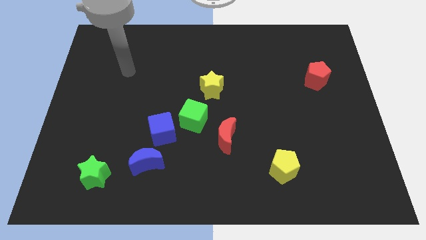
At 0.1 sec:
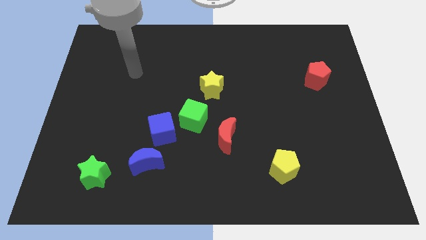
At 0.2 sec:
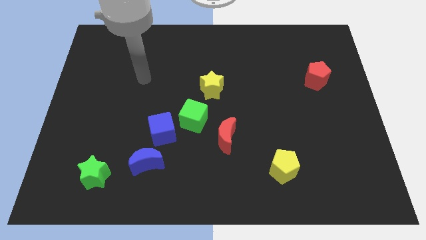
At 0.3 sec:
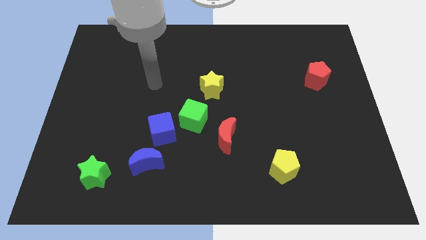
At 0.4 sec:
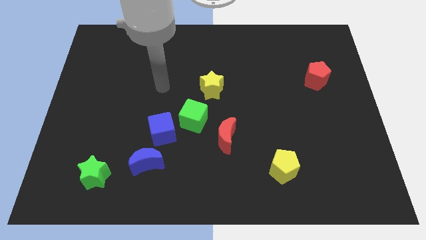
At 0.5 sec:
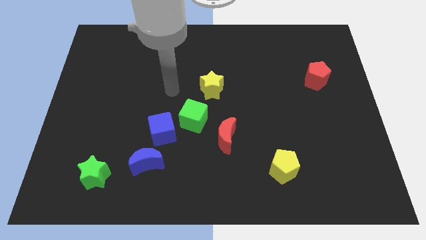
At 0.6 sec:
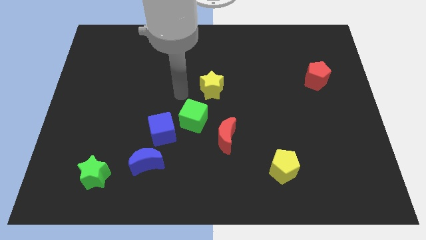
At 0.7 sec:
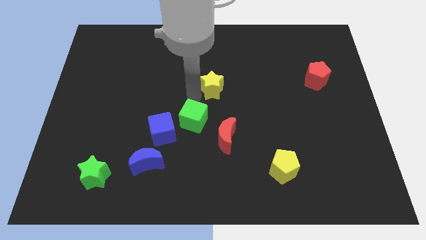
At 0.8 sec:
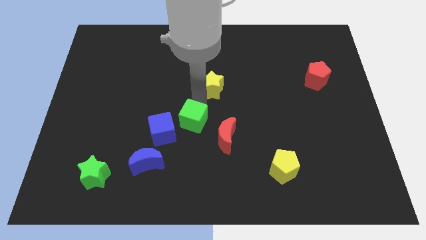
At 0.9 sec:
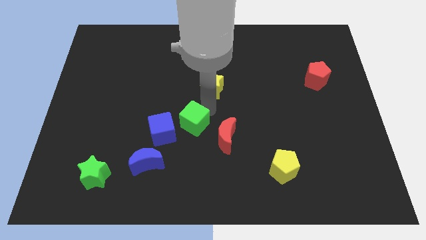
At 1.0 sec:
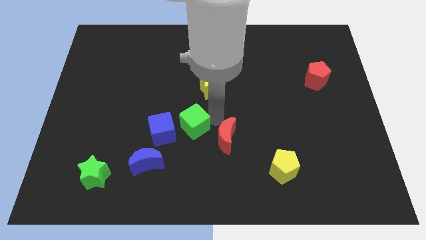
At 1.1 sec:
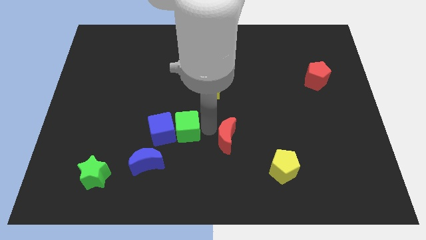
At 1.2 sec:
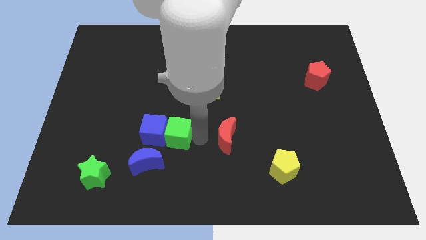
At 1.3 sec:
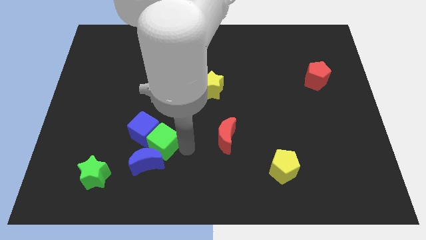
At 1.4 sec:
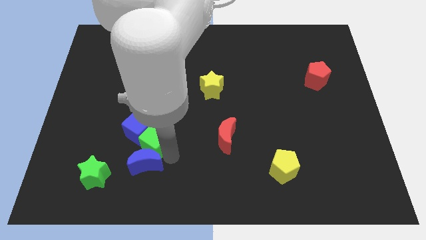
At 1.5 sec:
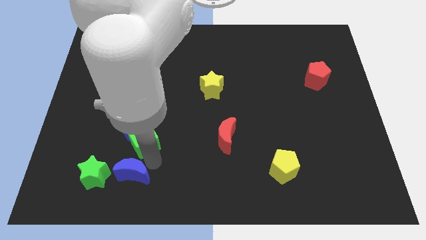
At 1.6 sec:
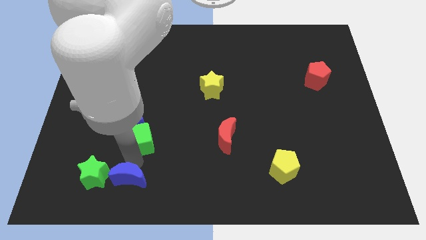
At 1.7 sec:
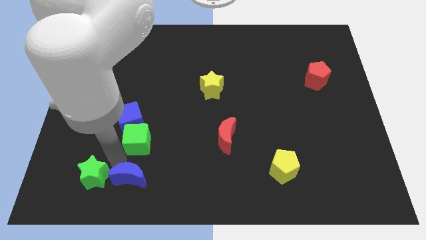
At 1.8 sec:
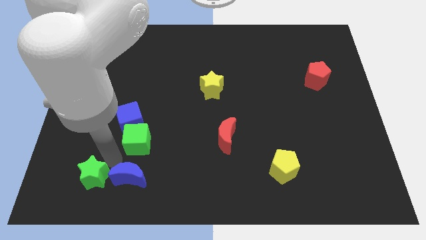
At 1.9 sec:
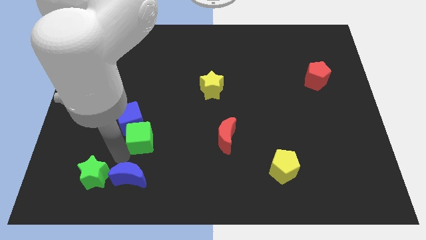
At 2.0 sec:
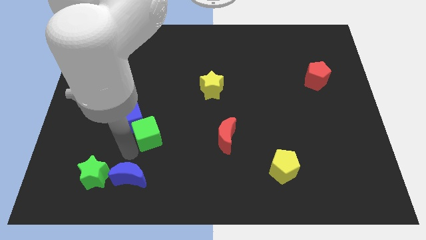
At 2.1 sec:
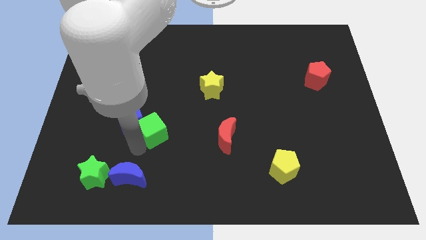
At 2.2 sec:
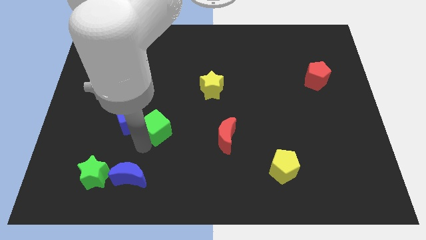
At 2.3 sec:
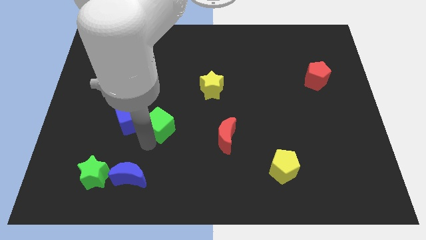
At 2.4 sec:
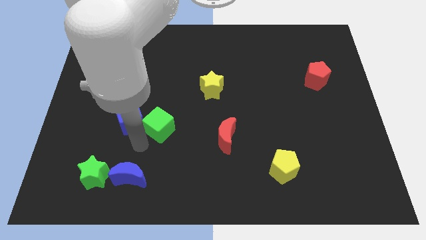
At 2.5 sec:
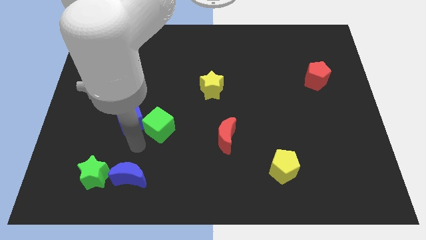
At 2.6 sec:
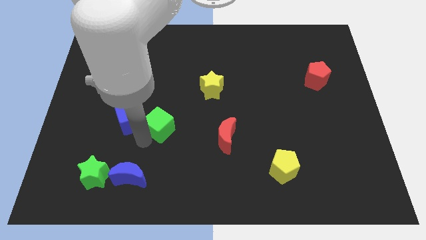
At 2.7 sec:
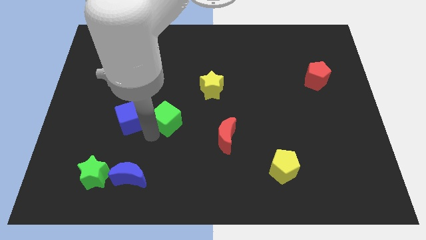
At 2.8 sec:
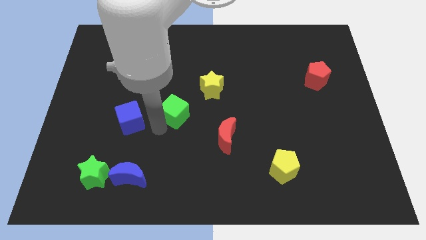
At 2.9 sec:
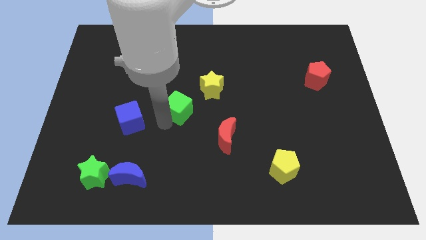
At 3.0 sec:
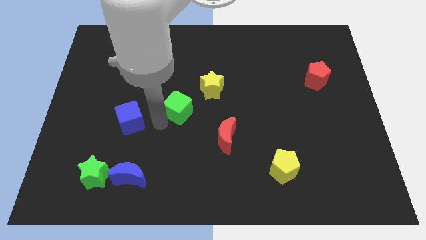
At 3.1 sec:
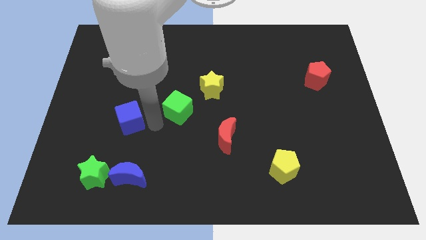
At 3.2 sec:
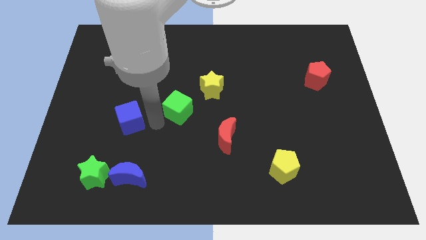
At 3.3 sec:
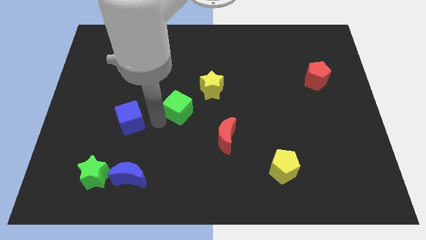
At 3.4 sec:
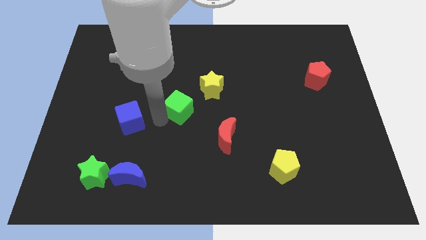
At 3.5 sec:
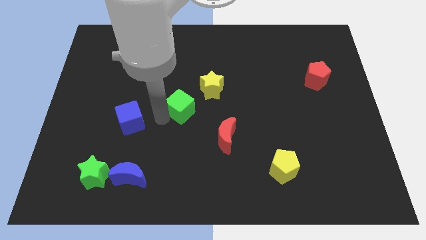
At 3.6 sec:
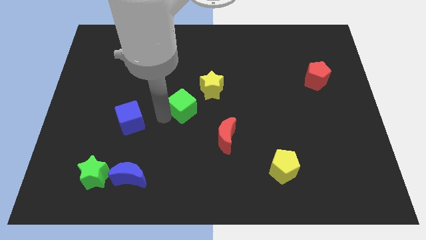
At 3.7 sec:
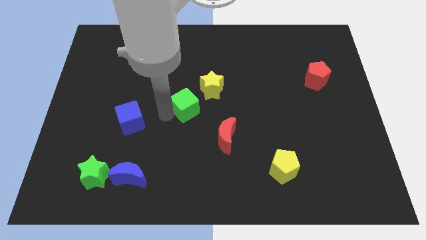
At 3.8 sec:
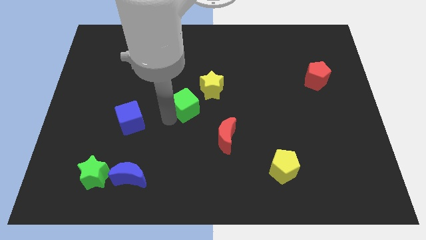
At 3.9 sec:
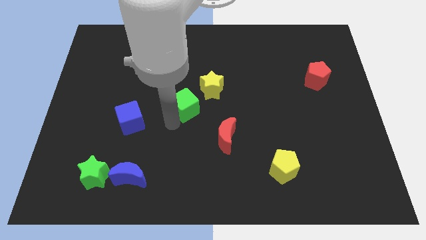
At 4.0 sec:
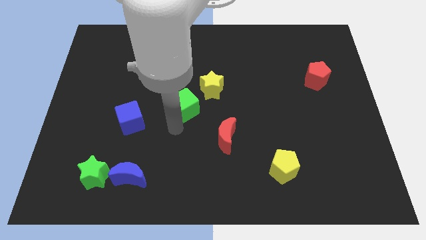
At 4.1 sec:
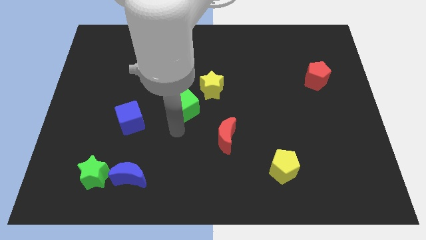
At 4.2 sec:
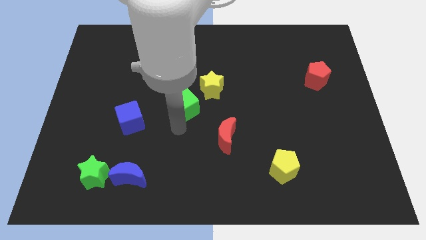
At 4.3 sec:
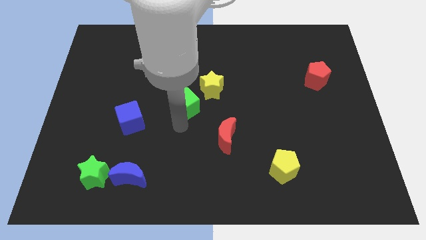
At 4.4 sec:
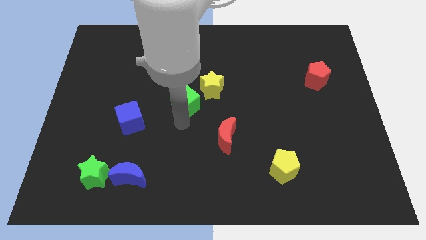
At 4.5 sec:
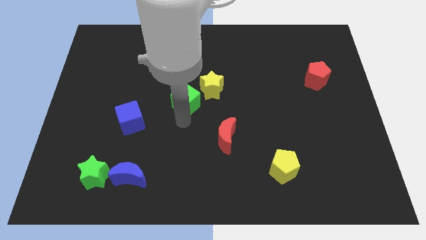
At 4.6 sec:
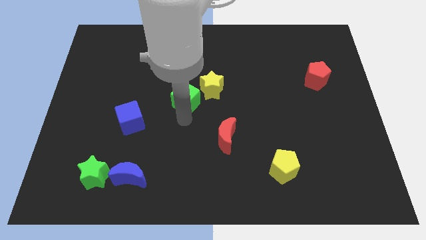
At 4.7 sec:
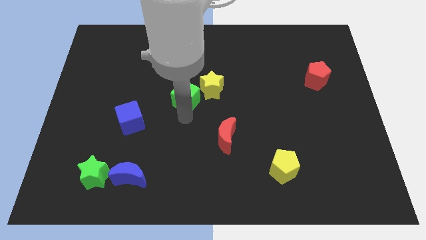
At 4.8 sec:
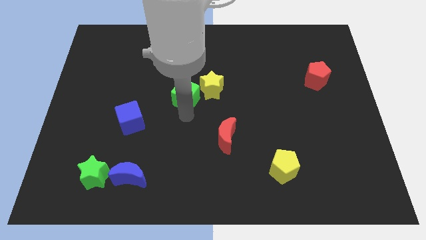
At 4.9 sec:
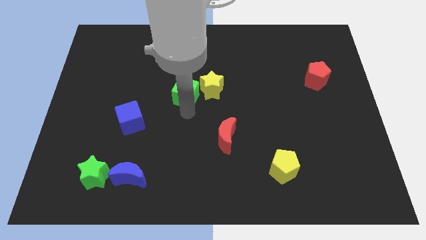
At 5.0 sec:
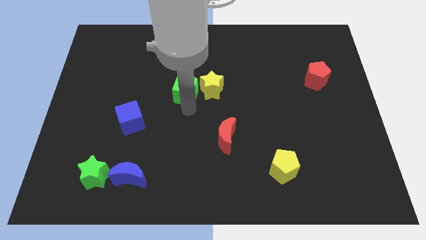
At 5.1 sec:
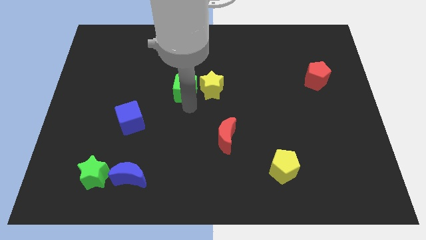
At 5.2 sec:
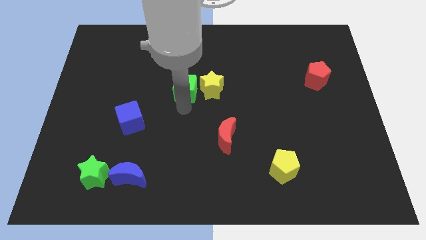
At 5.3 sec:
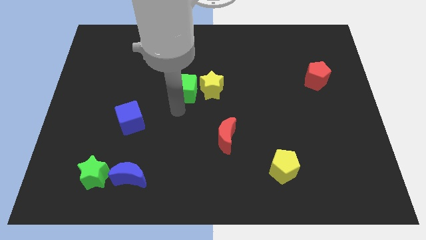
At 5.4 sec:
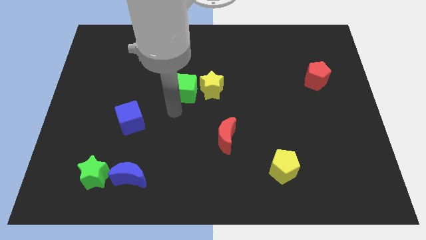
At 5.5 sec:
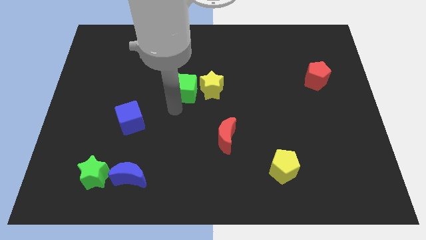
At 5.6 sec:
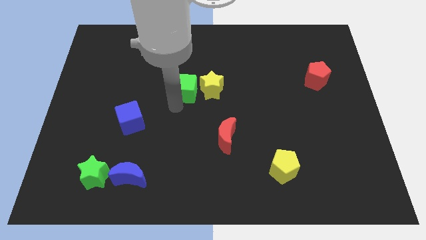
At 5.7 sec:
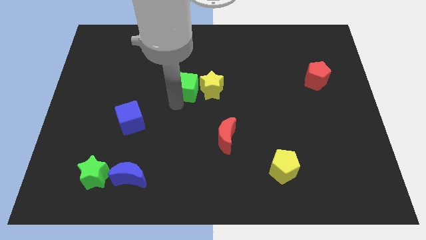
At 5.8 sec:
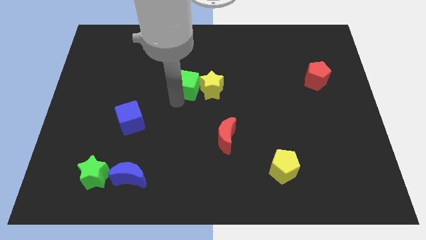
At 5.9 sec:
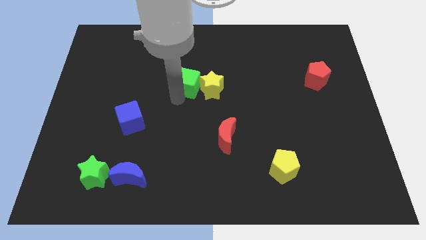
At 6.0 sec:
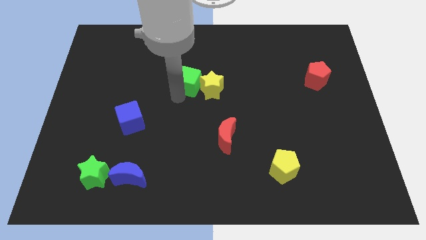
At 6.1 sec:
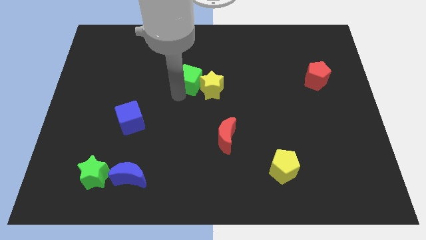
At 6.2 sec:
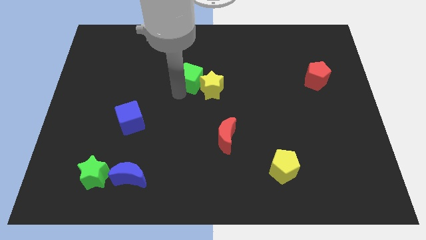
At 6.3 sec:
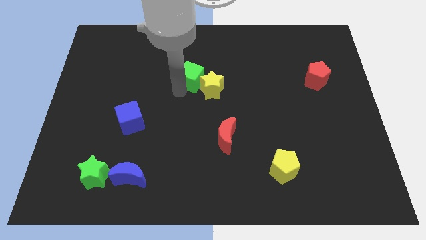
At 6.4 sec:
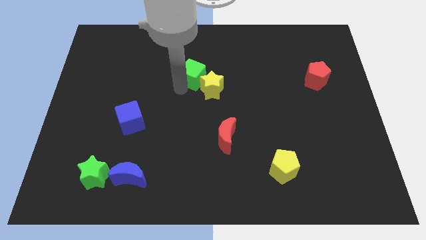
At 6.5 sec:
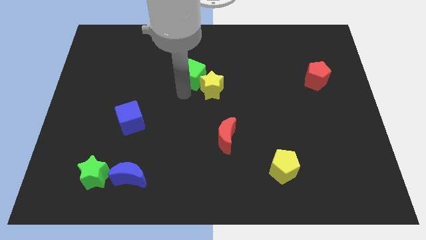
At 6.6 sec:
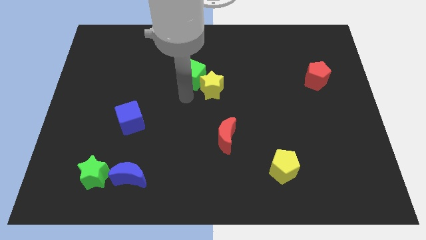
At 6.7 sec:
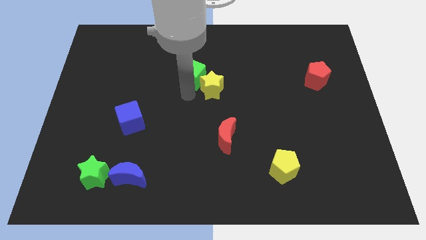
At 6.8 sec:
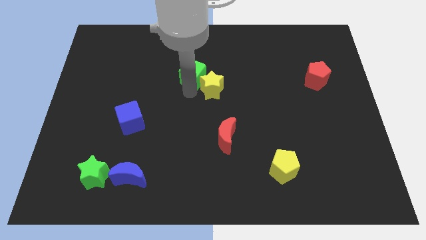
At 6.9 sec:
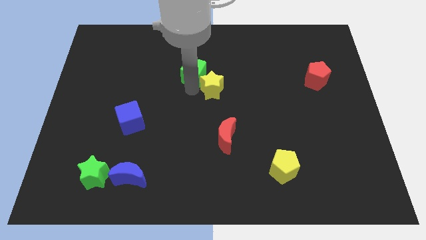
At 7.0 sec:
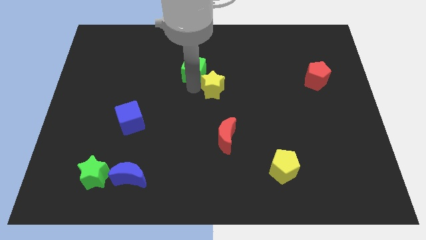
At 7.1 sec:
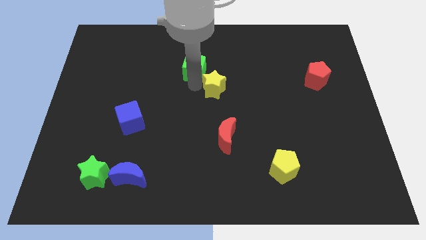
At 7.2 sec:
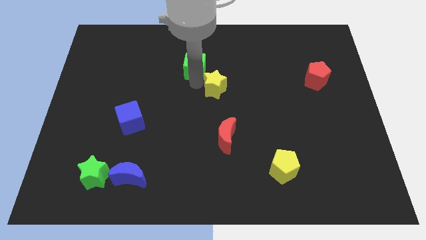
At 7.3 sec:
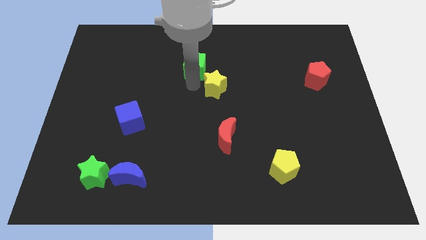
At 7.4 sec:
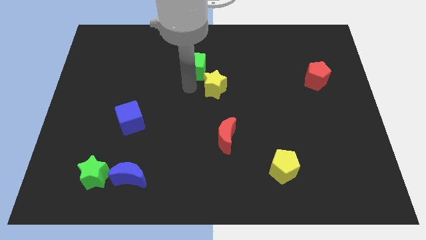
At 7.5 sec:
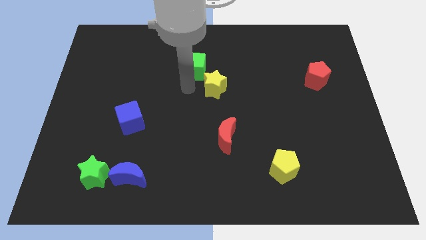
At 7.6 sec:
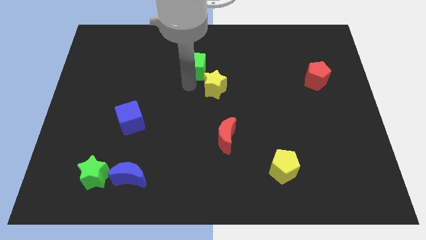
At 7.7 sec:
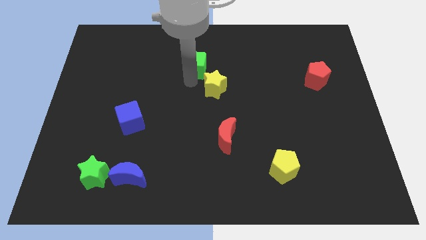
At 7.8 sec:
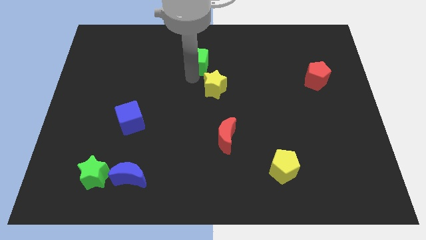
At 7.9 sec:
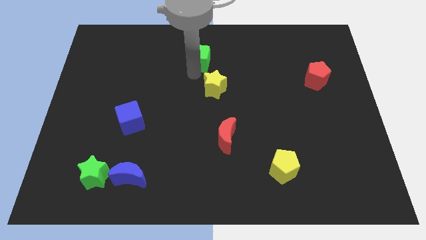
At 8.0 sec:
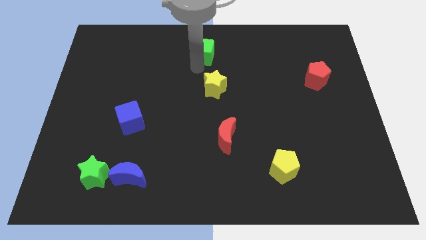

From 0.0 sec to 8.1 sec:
slide the green cube to the top side
